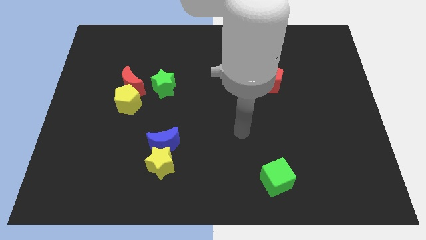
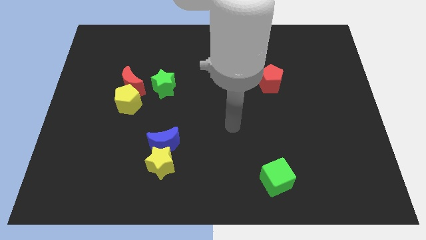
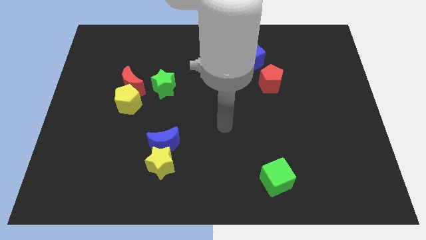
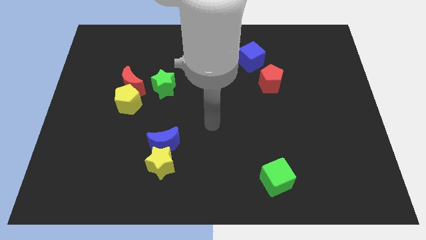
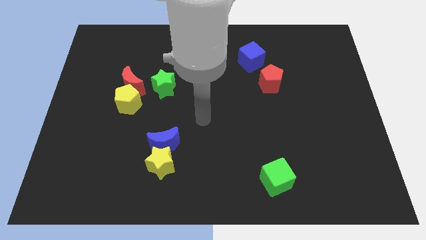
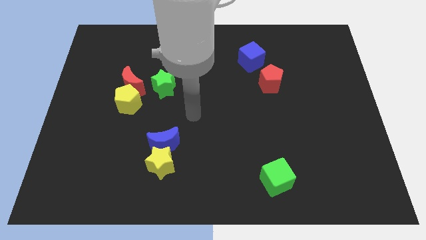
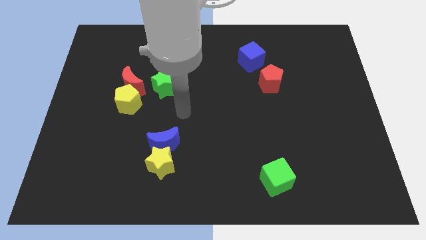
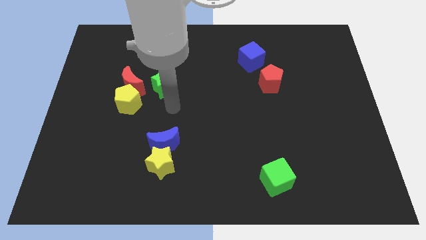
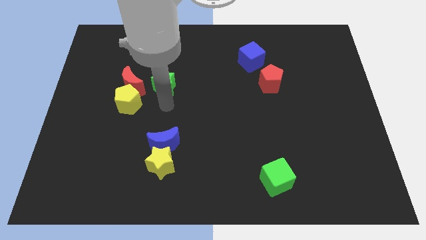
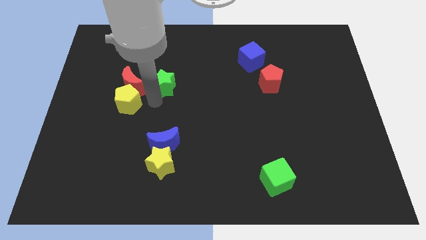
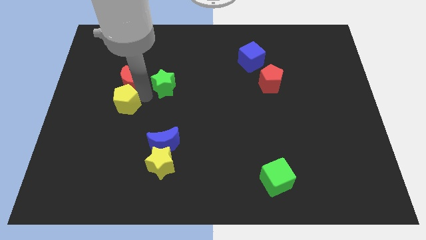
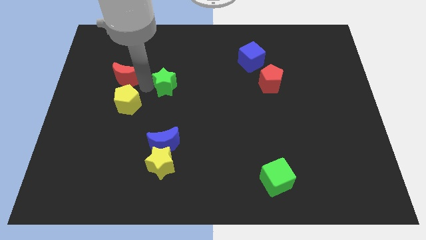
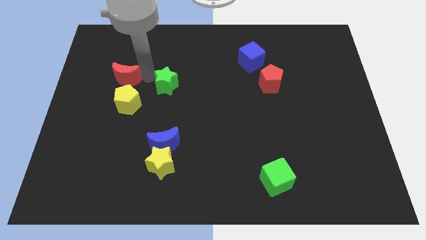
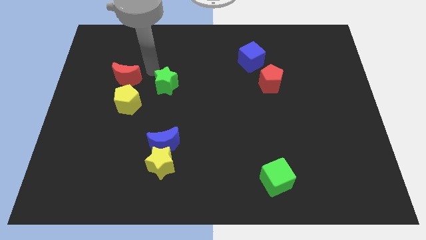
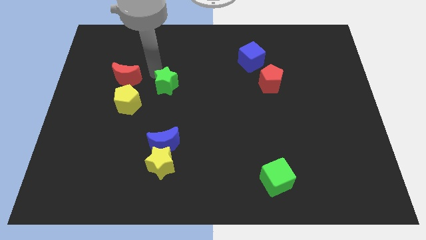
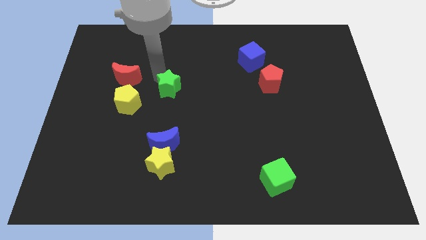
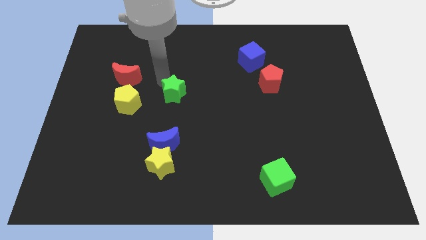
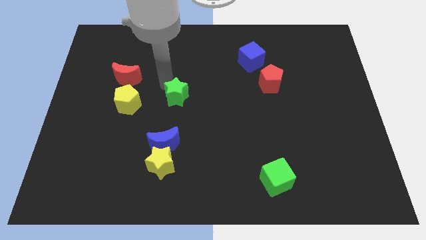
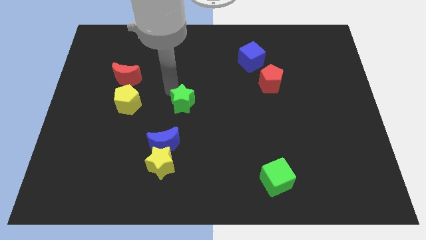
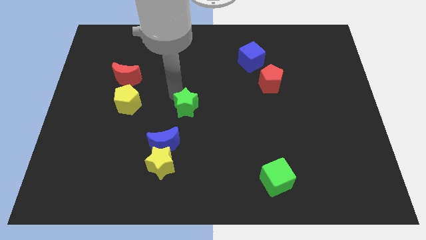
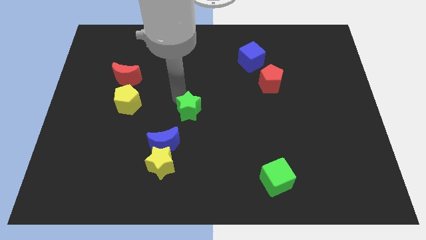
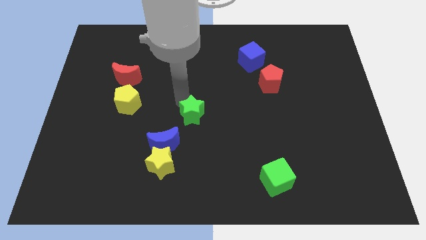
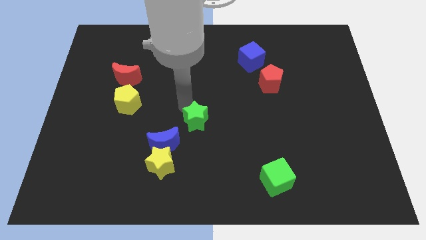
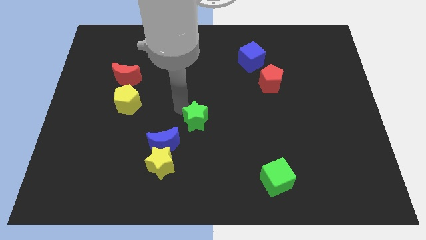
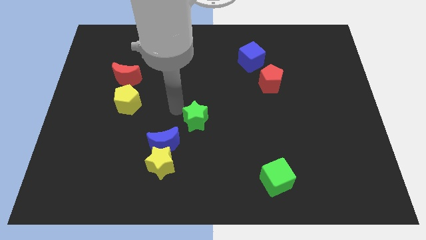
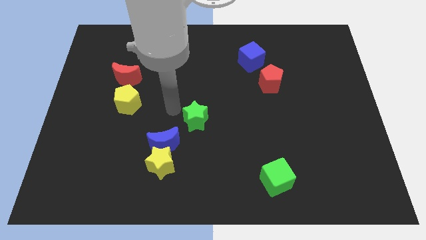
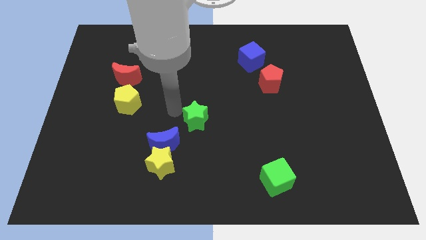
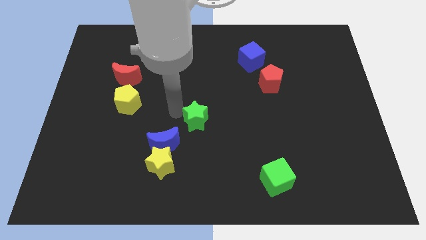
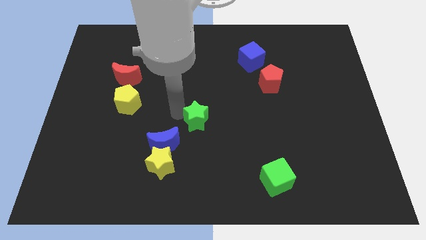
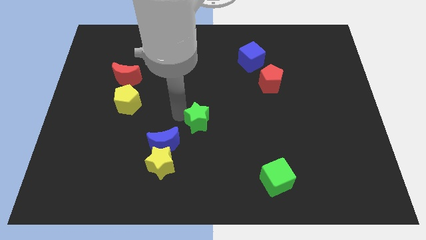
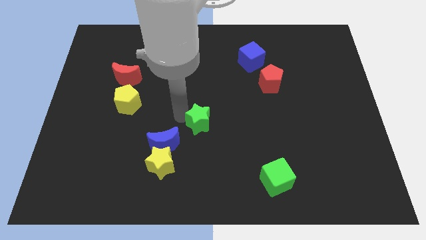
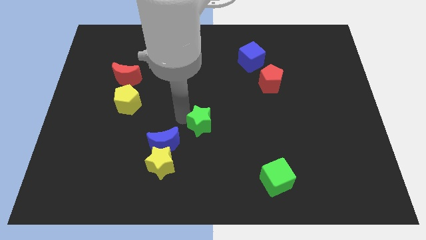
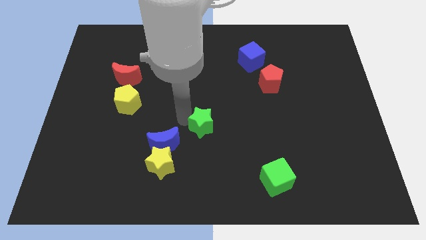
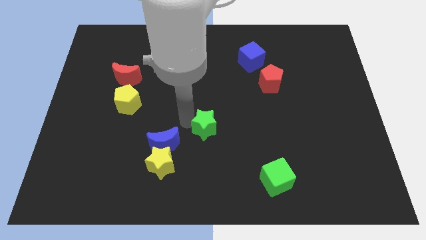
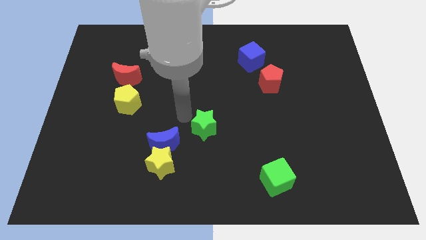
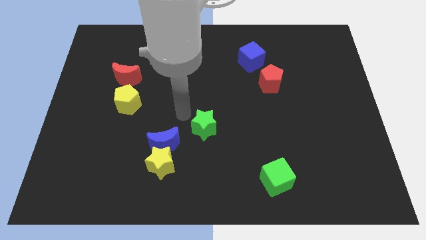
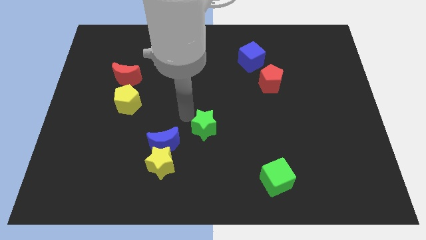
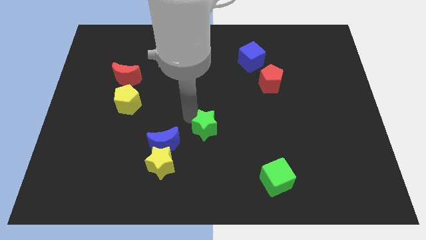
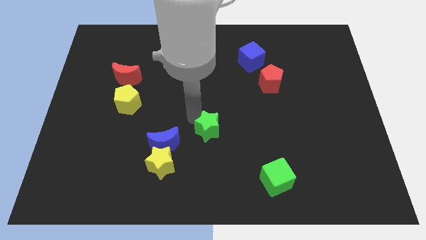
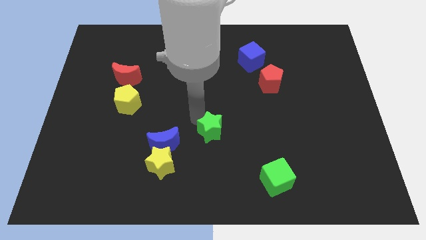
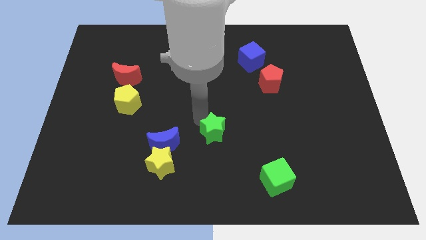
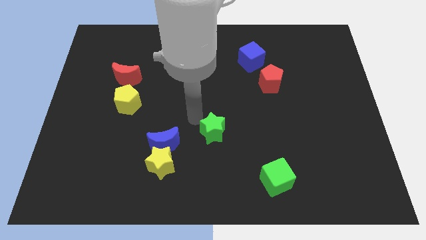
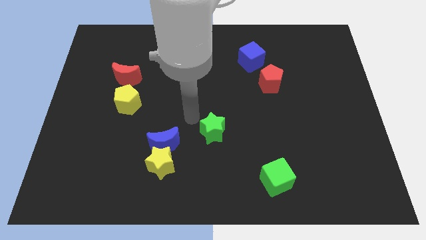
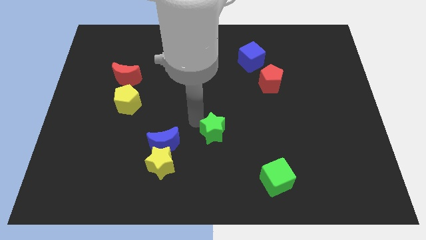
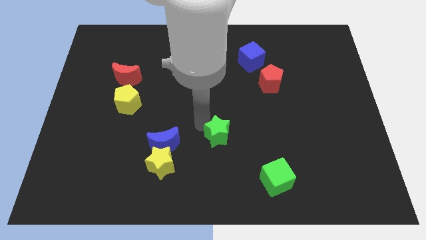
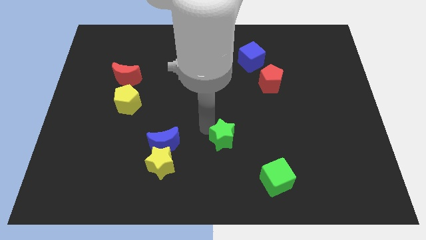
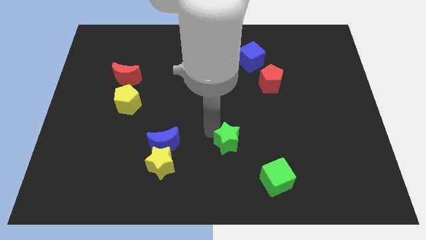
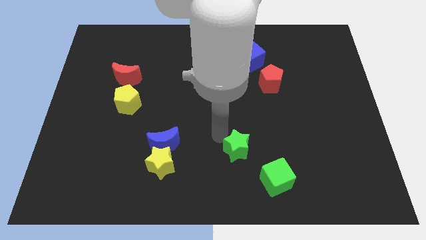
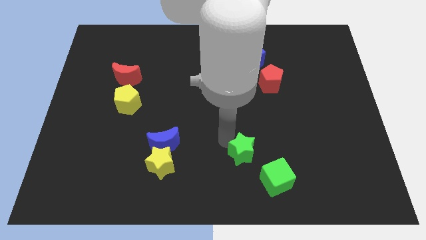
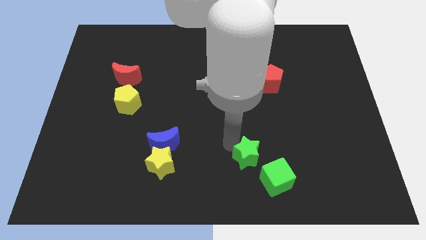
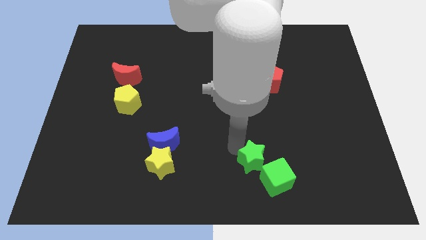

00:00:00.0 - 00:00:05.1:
push the green star next to the green cube

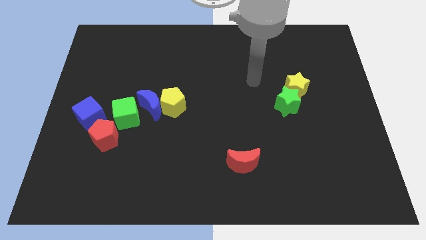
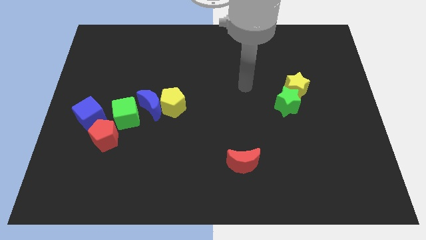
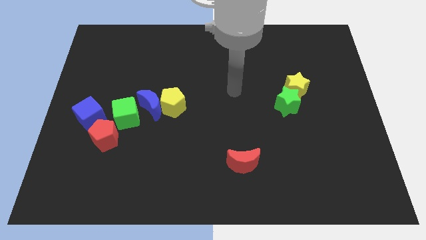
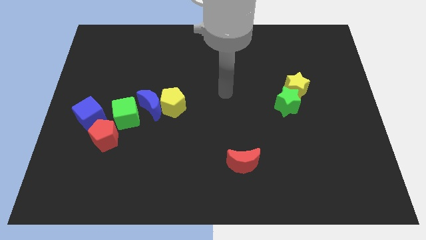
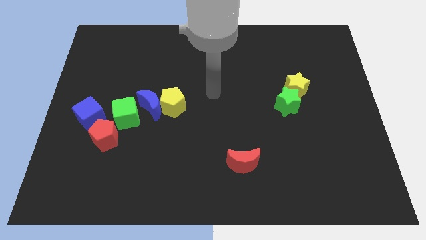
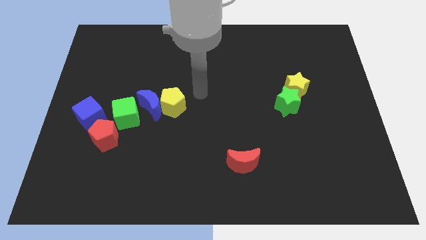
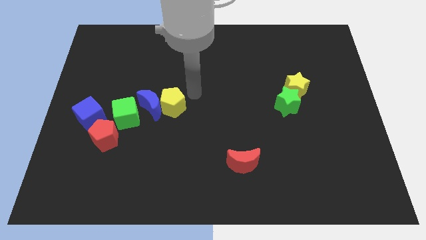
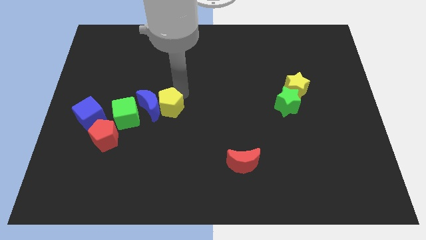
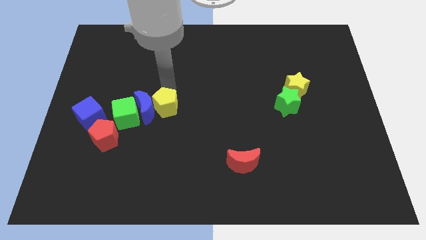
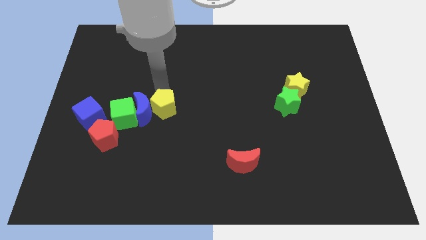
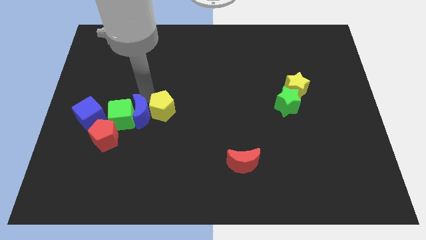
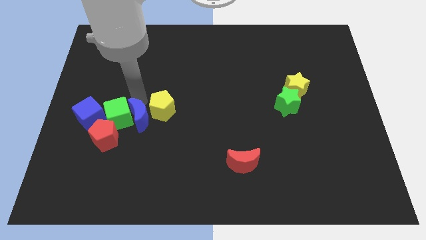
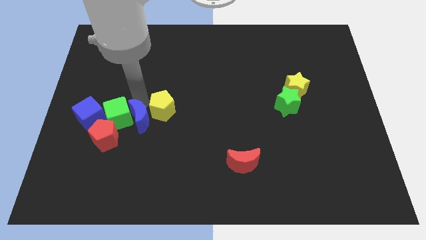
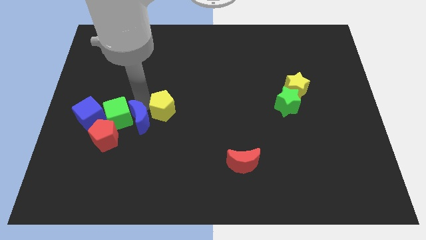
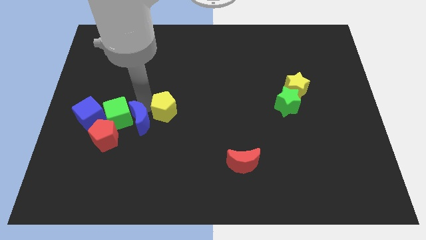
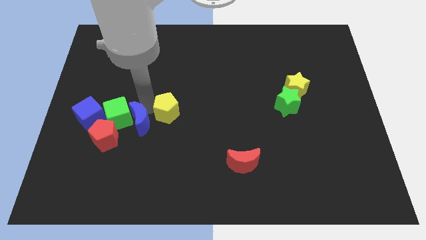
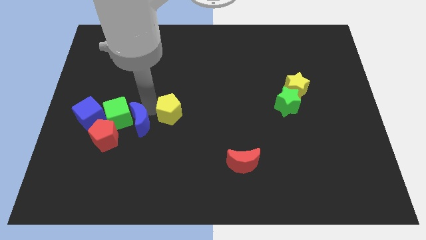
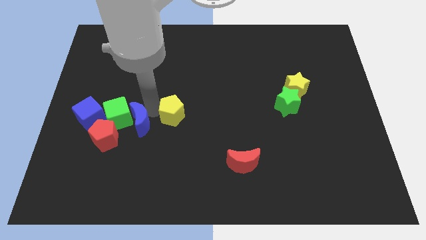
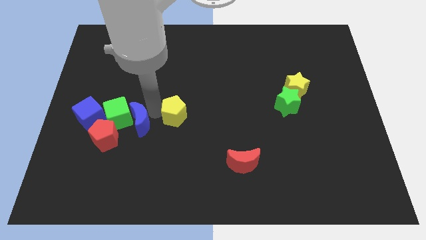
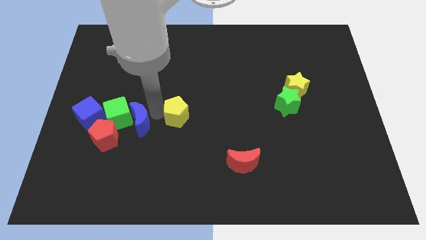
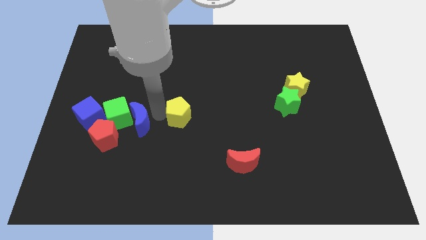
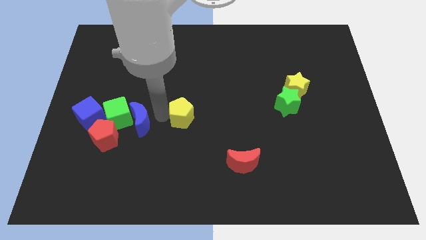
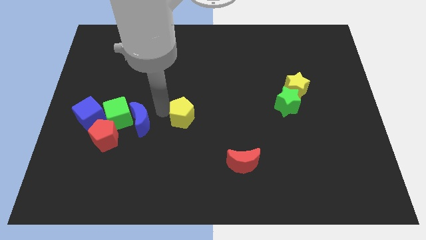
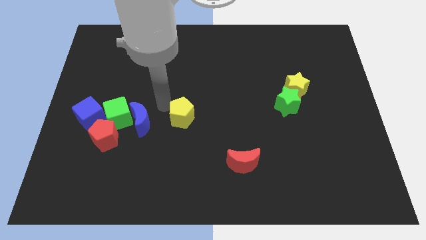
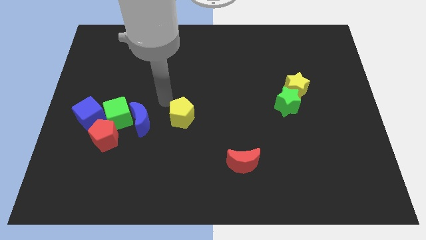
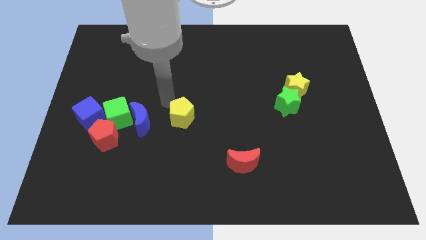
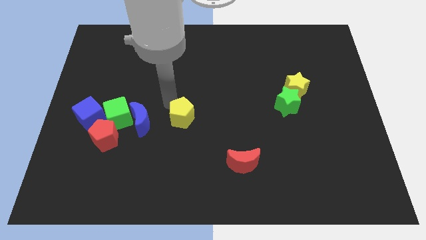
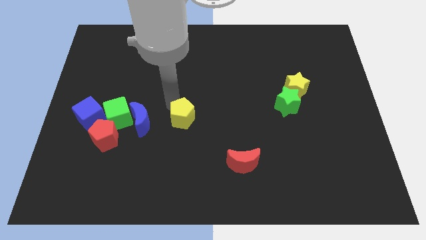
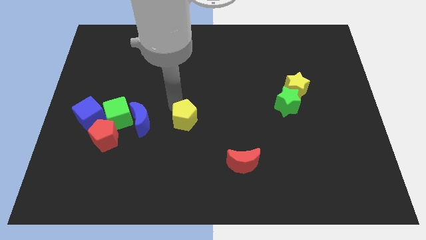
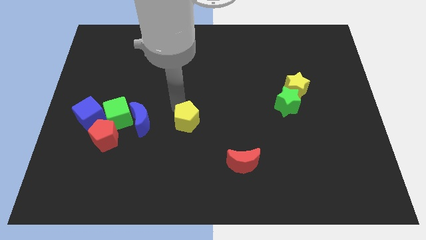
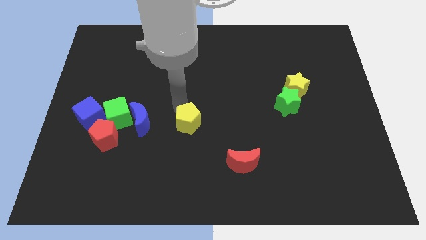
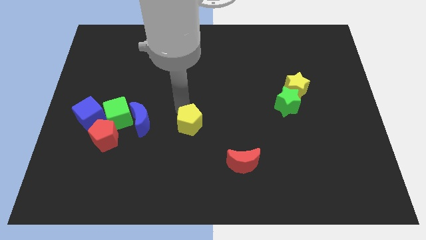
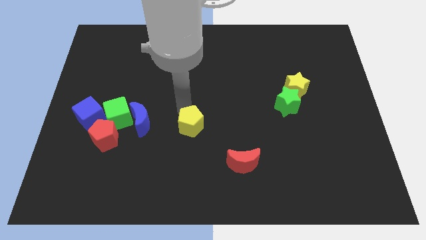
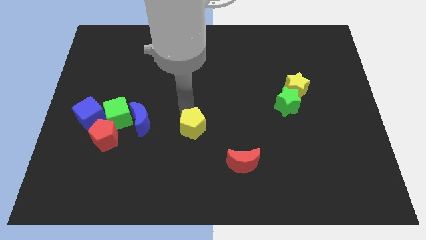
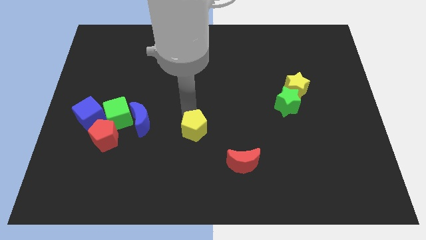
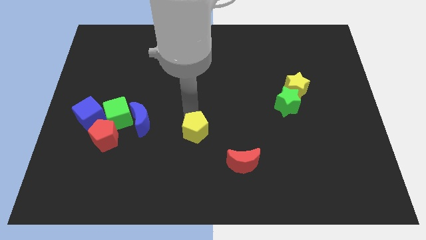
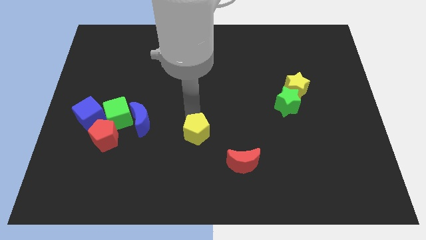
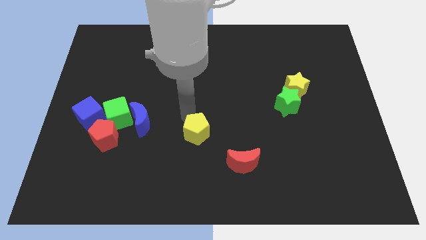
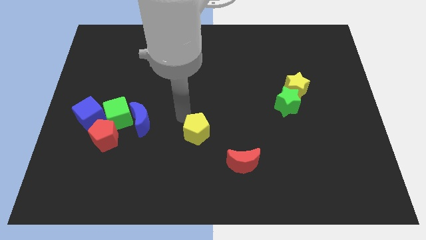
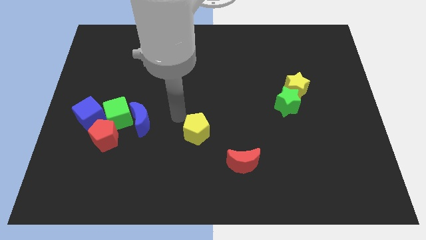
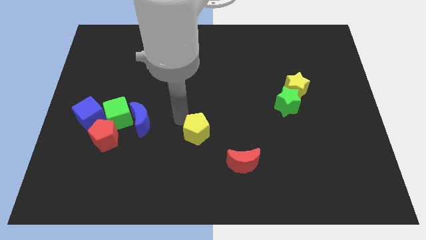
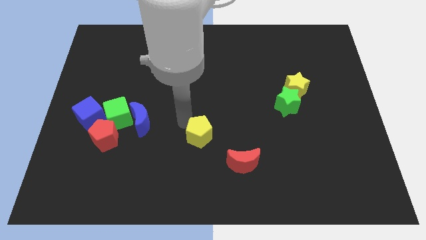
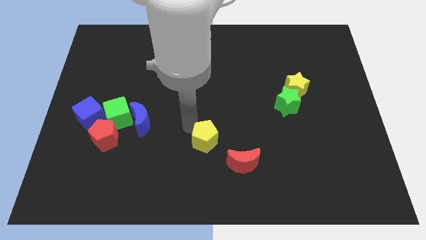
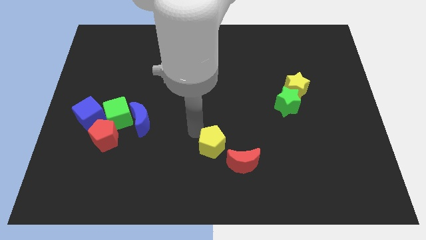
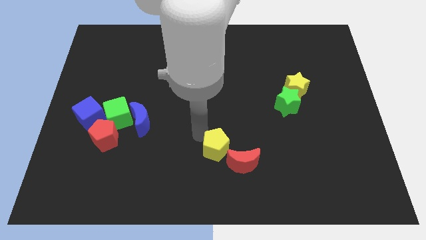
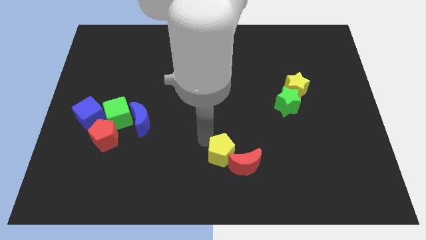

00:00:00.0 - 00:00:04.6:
slide the yellow pentagon close to the red moon
